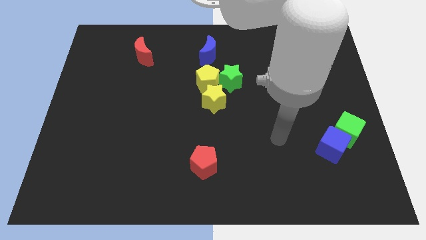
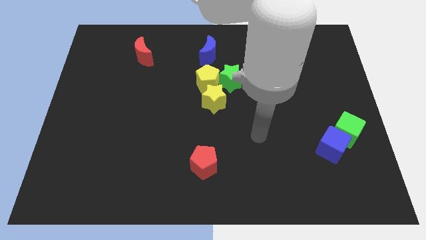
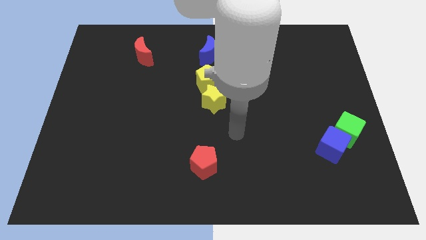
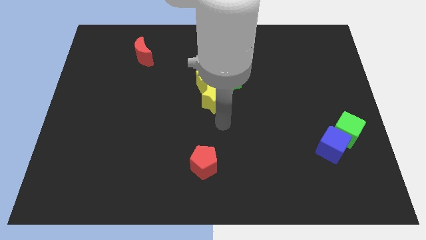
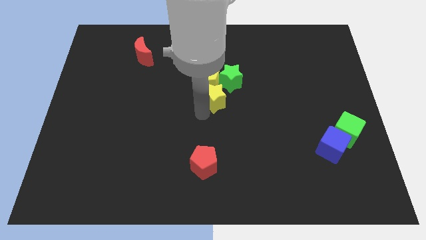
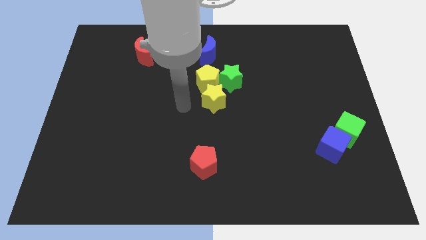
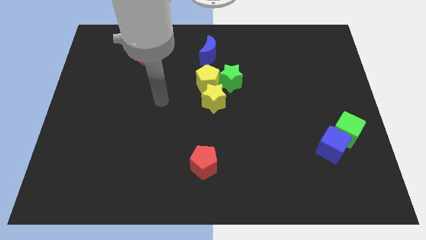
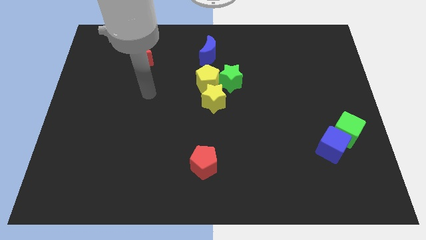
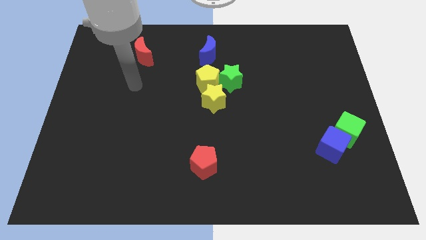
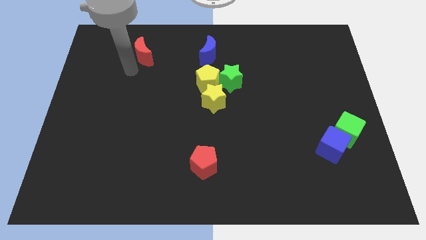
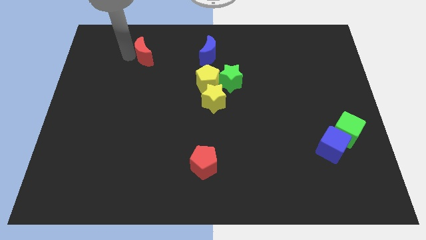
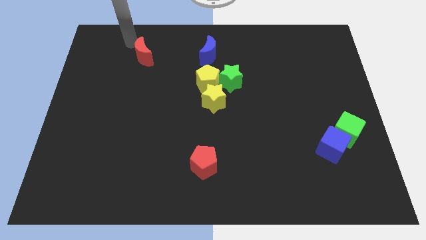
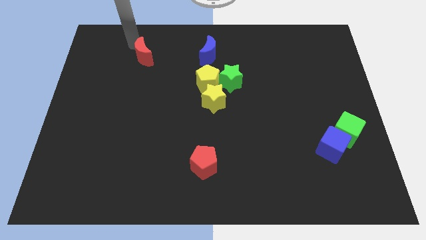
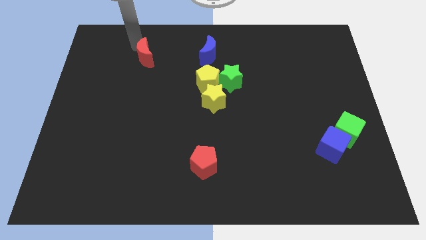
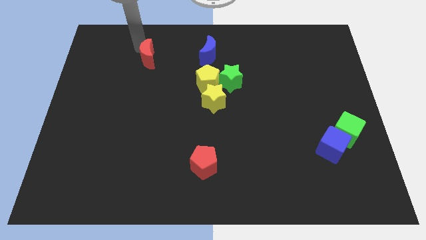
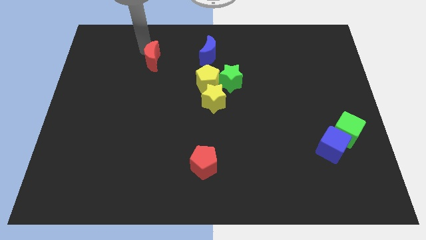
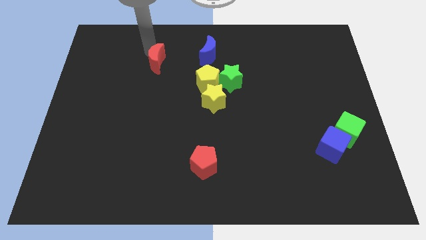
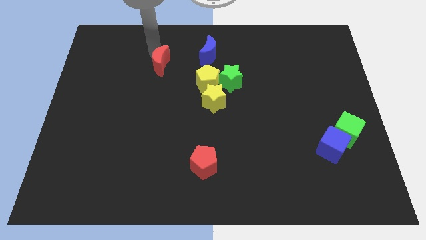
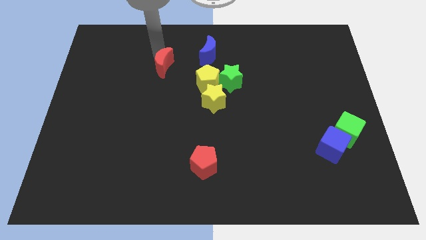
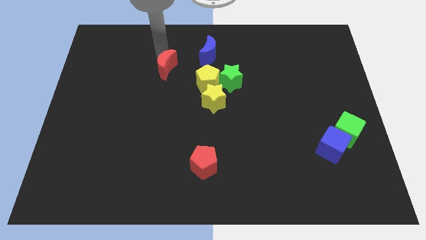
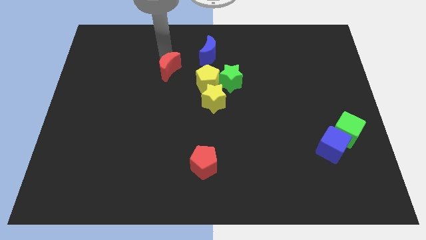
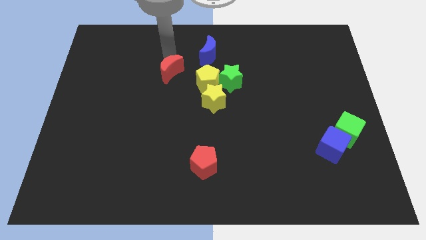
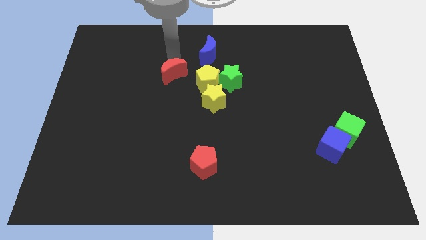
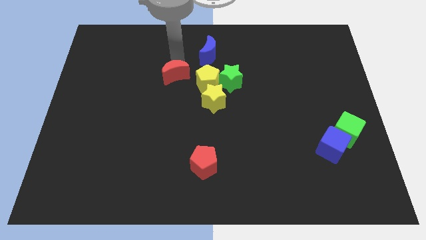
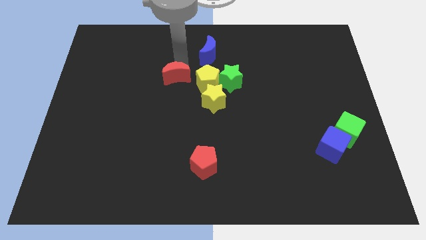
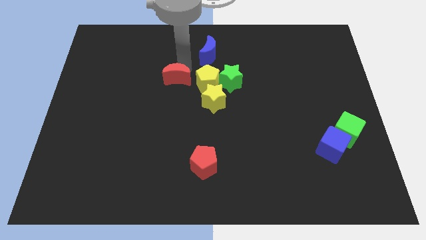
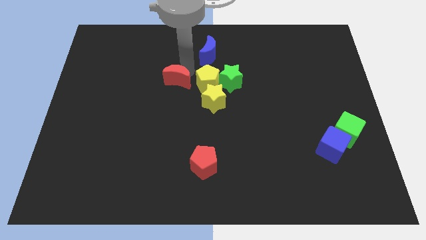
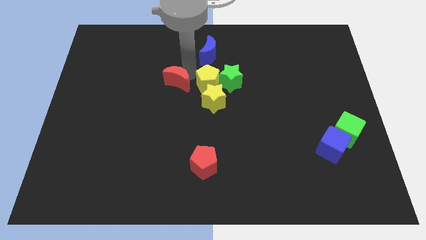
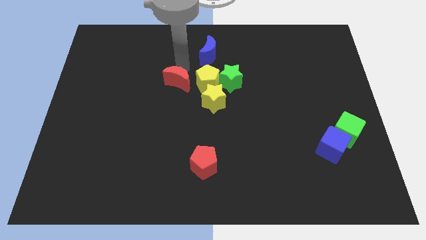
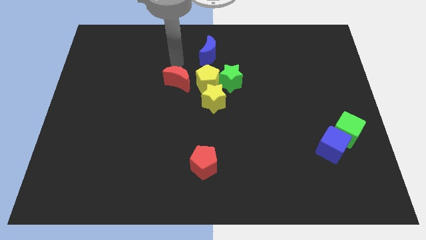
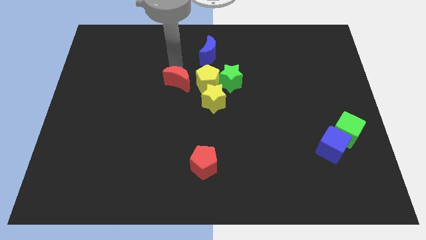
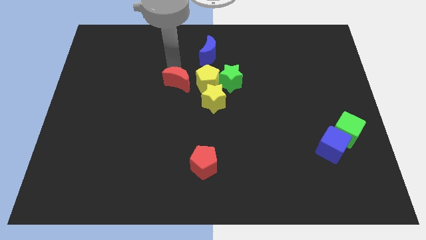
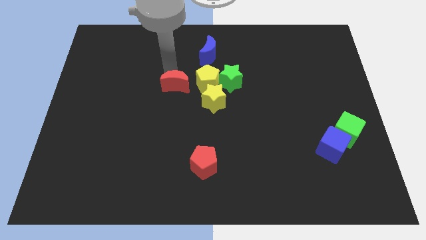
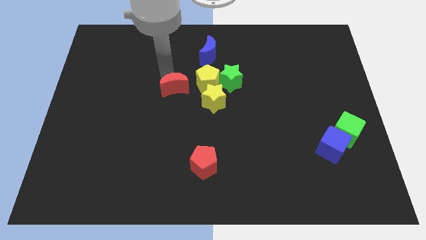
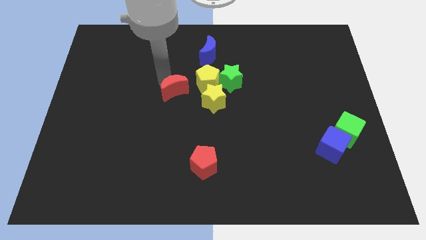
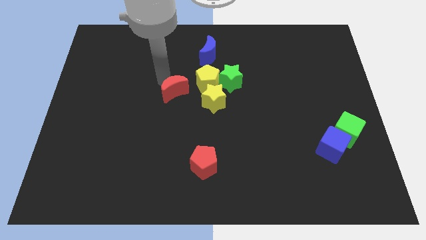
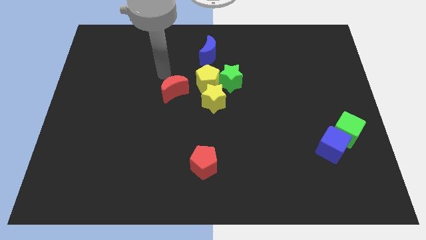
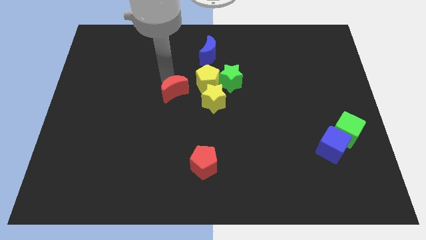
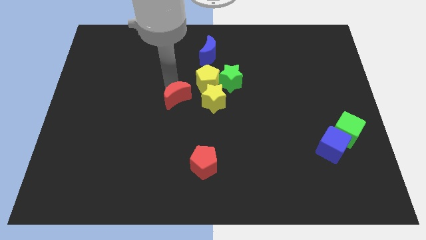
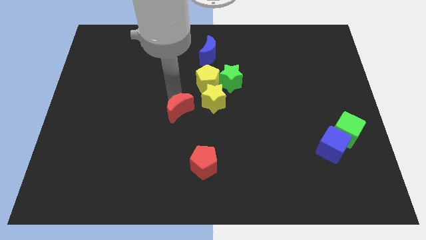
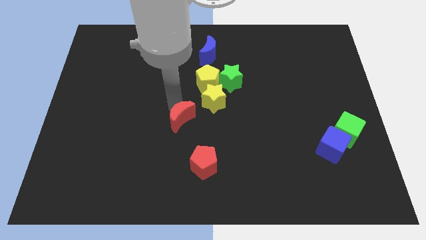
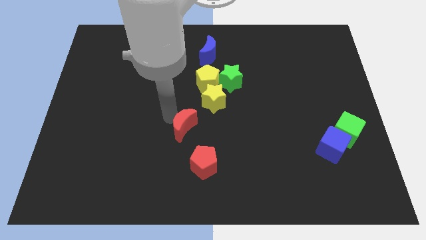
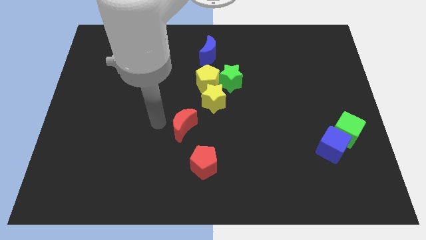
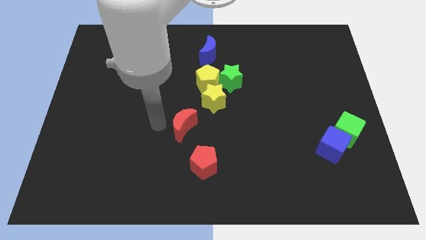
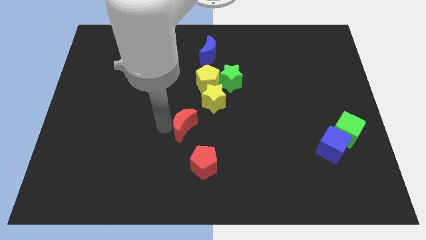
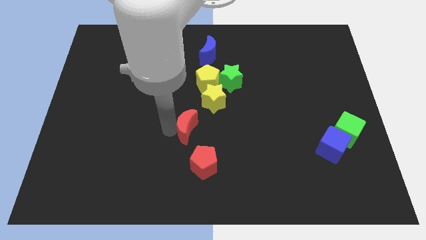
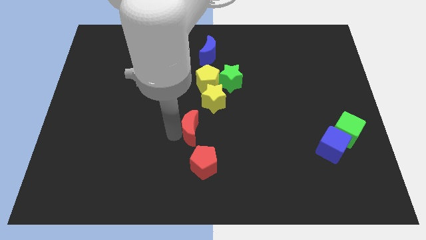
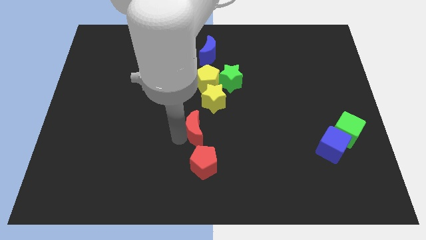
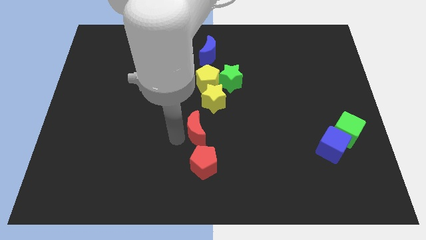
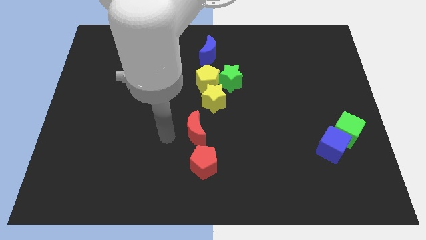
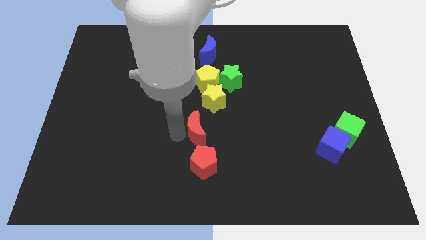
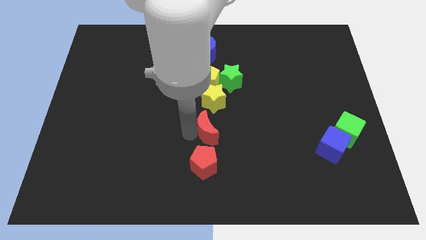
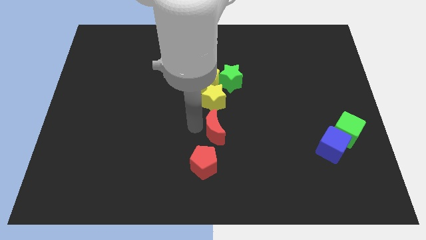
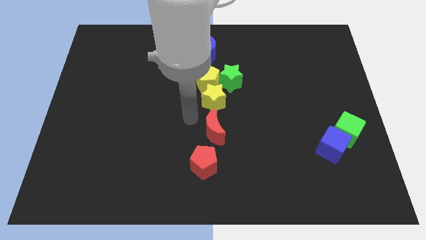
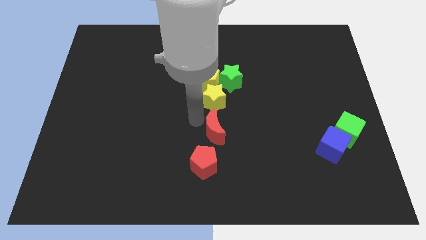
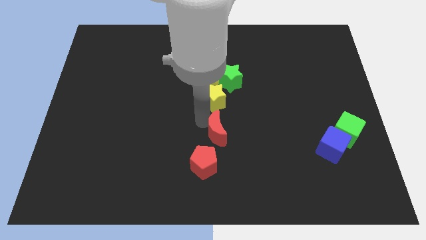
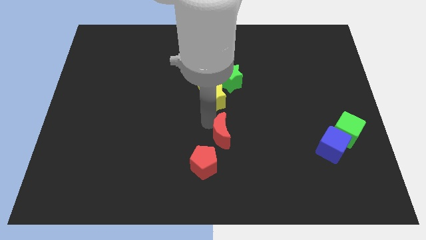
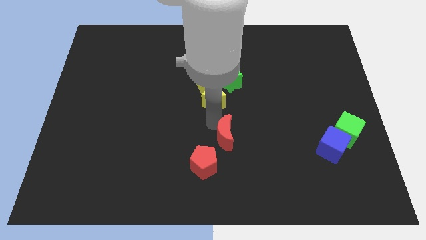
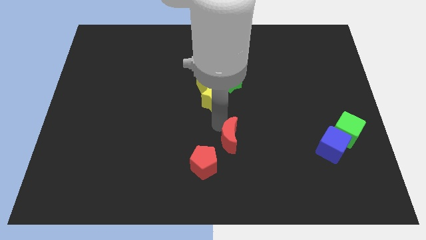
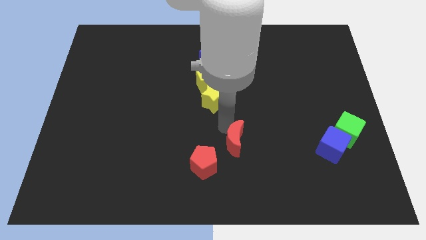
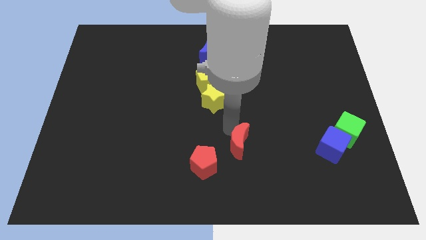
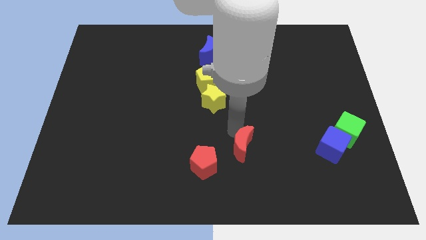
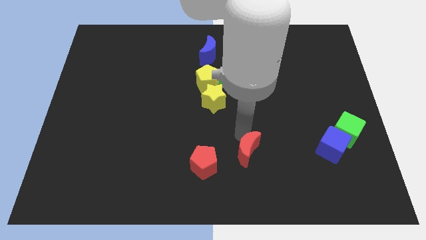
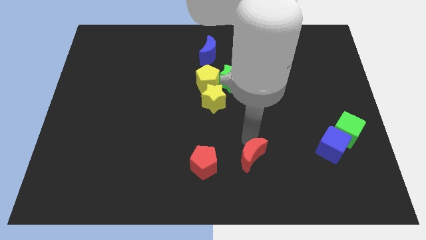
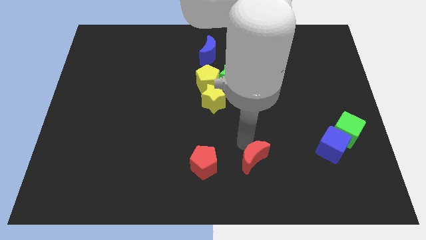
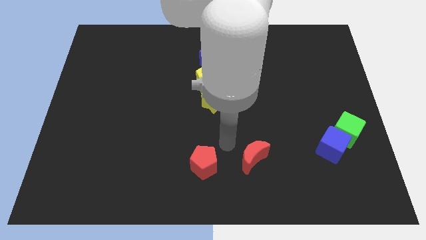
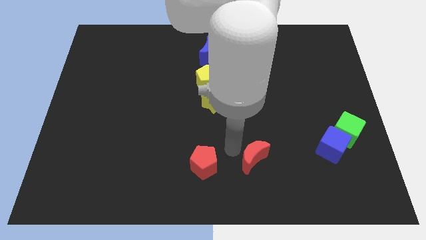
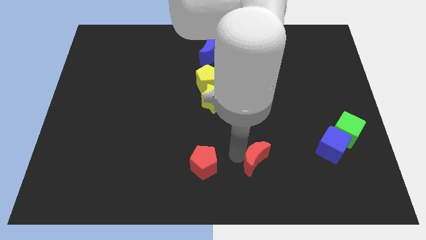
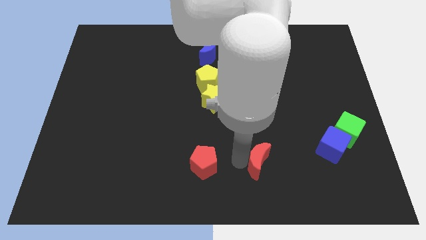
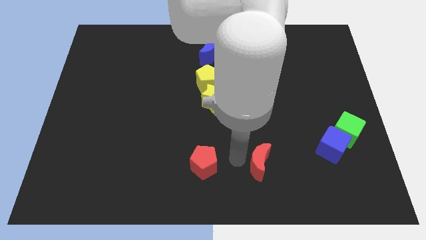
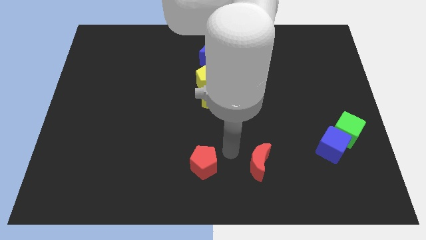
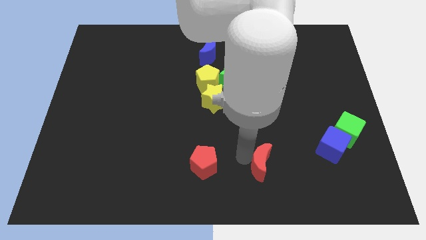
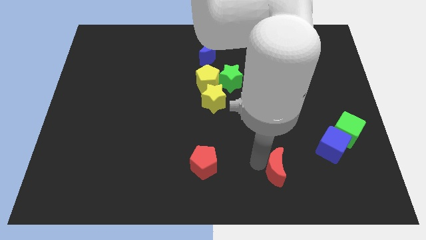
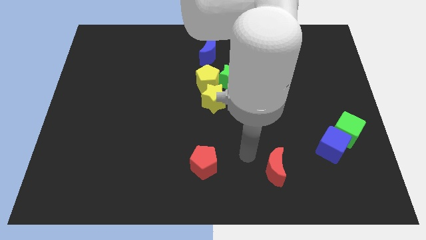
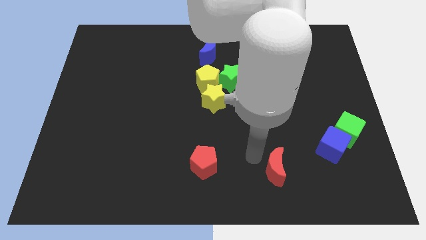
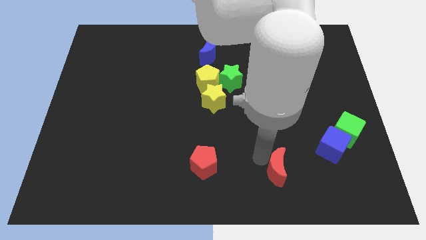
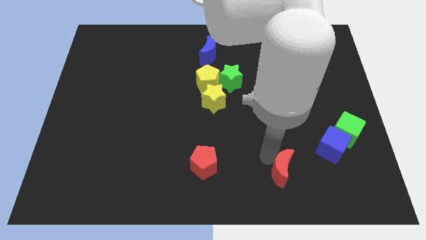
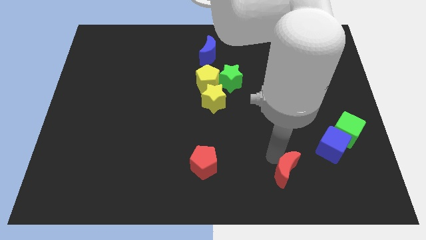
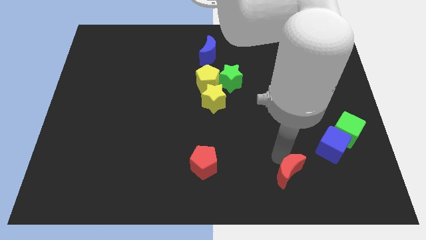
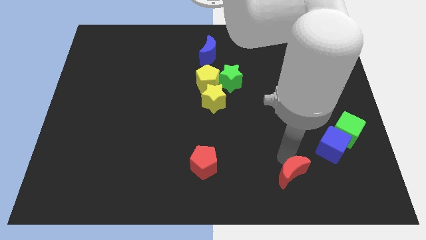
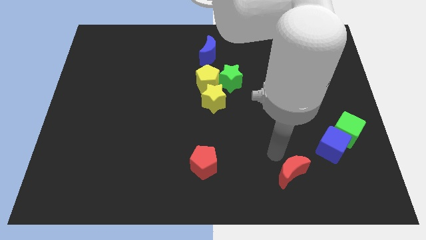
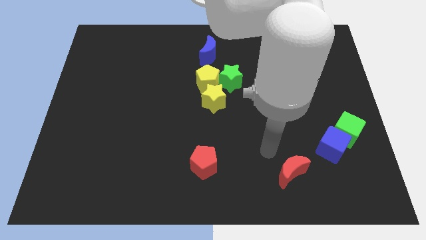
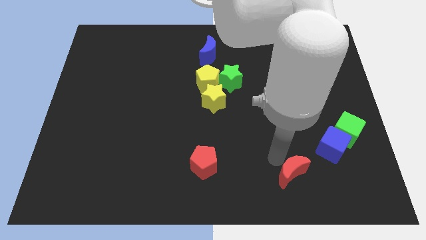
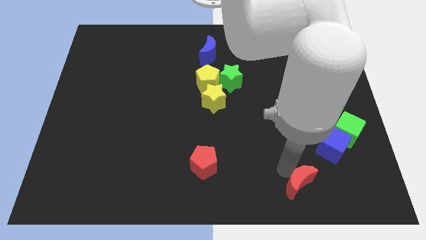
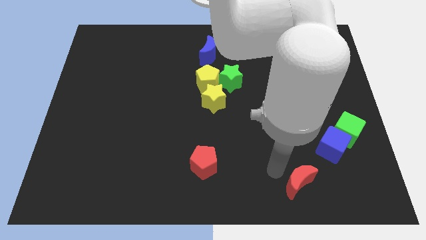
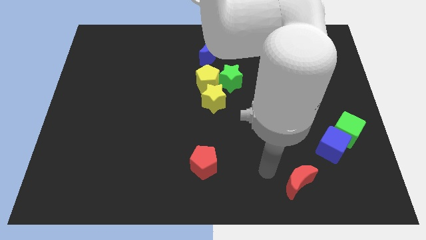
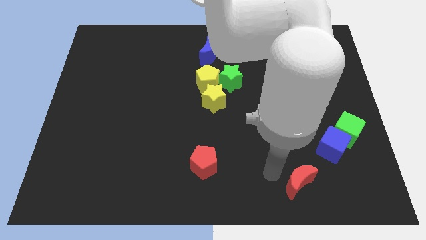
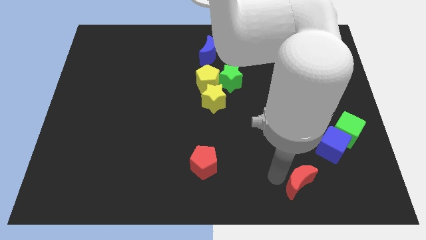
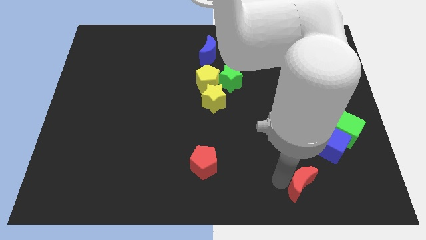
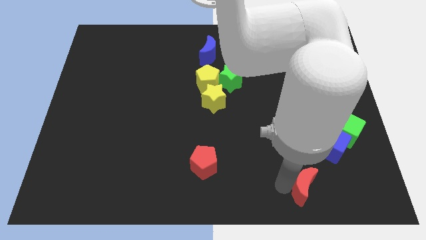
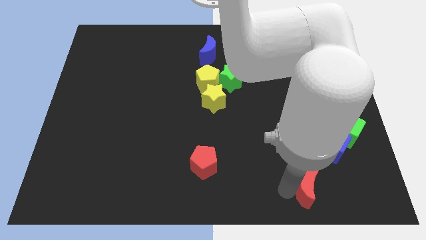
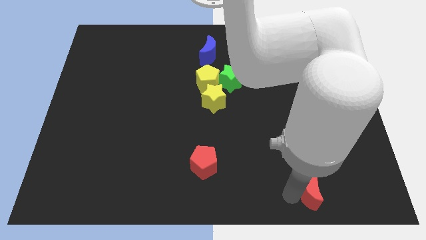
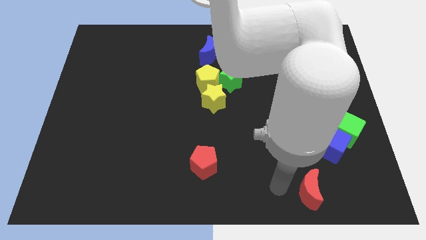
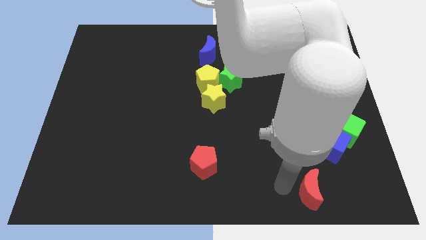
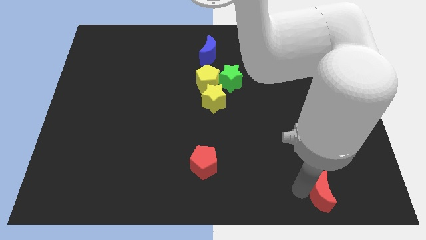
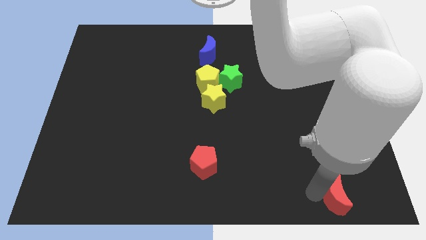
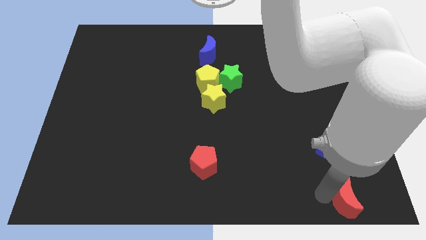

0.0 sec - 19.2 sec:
move the red moon to the bottom right corner
